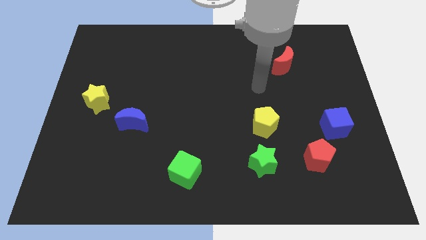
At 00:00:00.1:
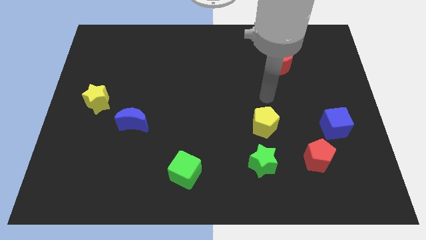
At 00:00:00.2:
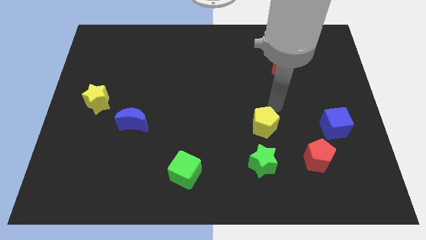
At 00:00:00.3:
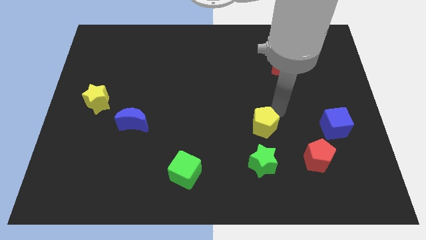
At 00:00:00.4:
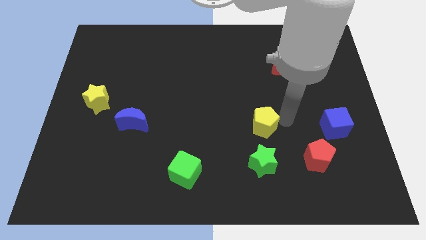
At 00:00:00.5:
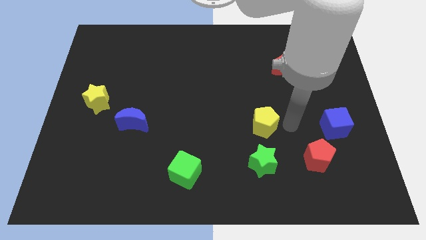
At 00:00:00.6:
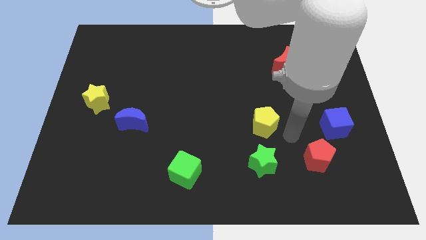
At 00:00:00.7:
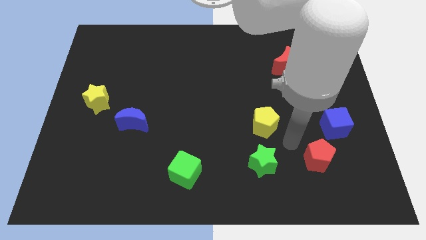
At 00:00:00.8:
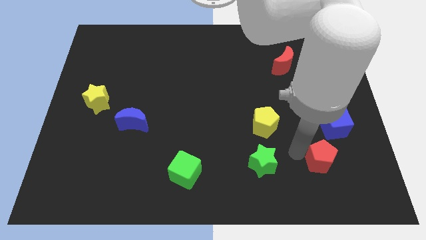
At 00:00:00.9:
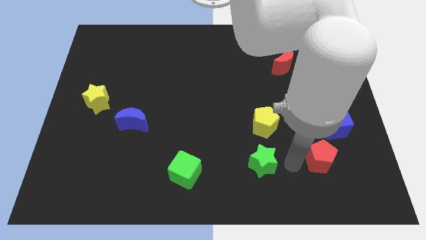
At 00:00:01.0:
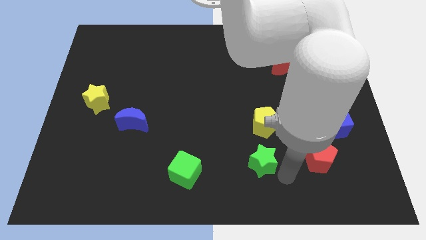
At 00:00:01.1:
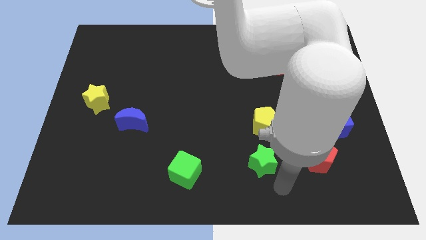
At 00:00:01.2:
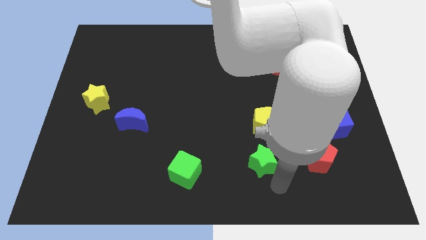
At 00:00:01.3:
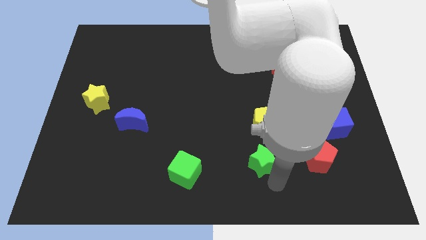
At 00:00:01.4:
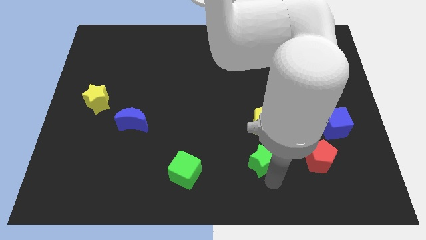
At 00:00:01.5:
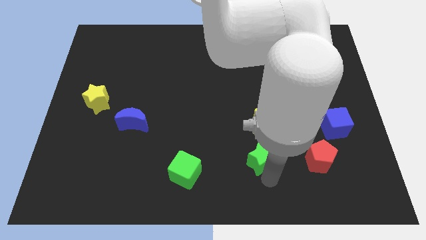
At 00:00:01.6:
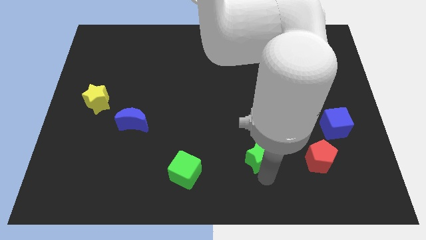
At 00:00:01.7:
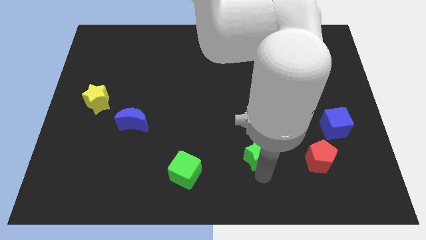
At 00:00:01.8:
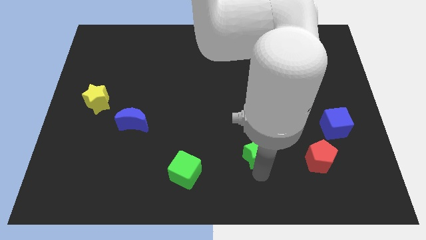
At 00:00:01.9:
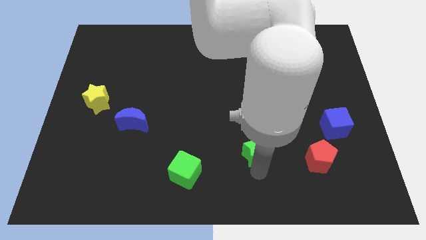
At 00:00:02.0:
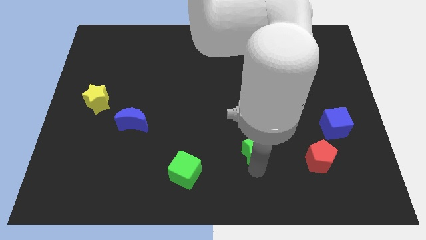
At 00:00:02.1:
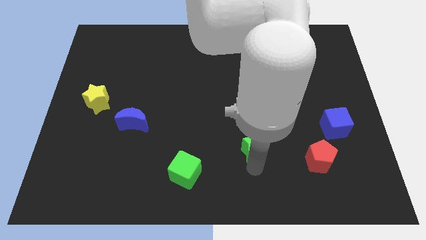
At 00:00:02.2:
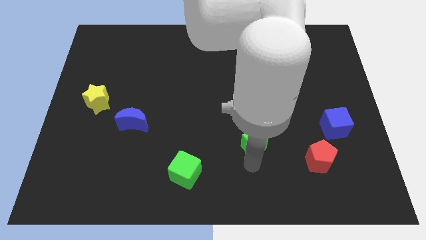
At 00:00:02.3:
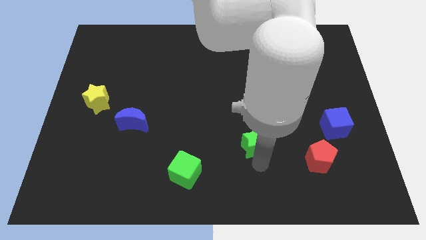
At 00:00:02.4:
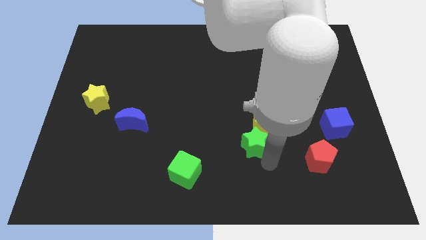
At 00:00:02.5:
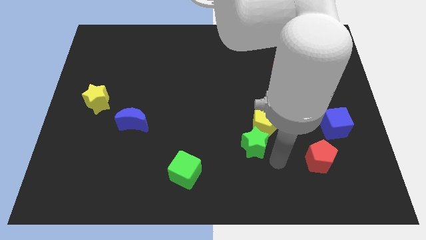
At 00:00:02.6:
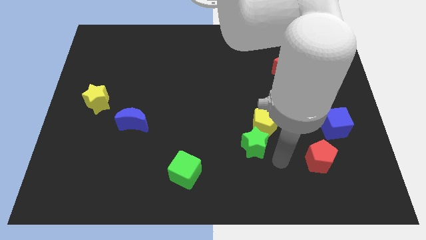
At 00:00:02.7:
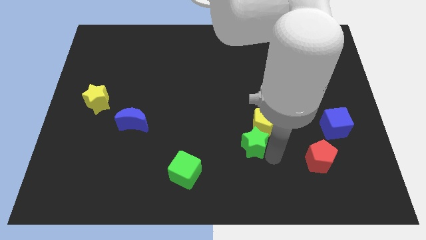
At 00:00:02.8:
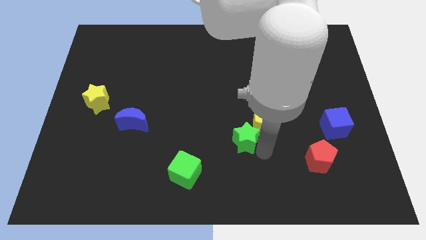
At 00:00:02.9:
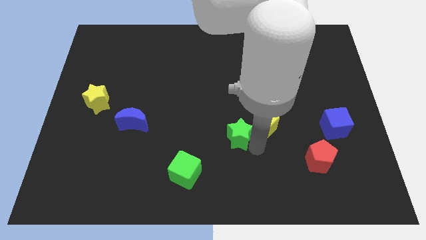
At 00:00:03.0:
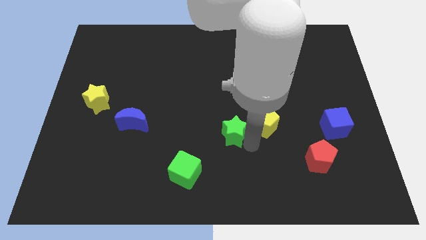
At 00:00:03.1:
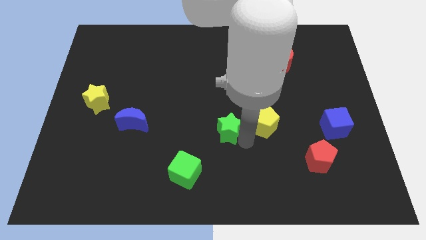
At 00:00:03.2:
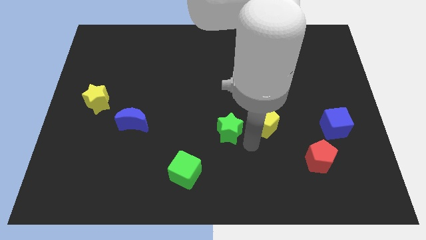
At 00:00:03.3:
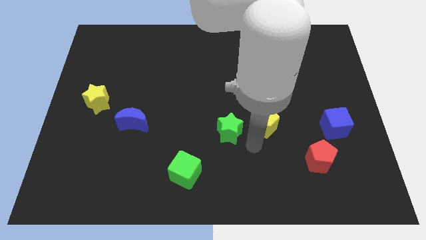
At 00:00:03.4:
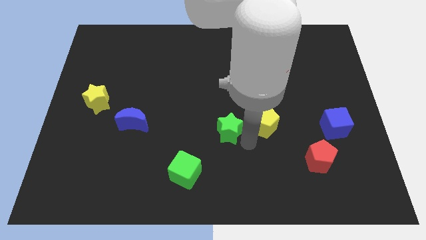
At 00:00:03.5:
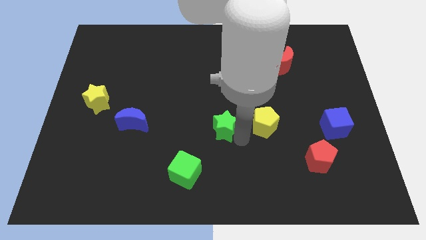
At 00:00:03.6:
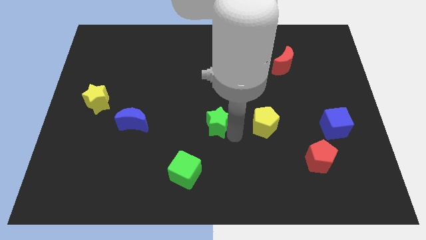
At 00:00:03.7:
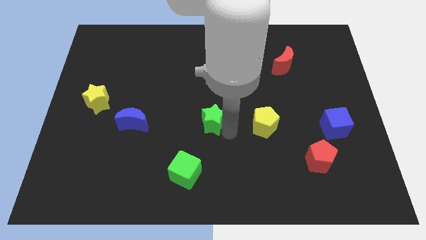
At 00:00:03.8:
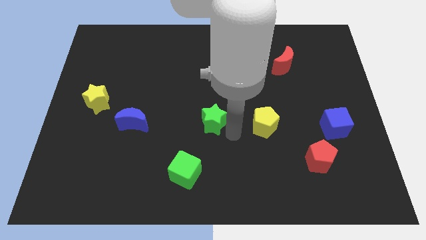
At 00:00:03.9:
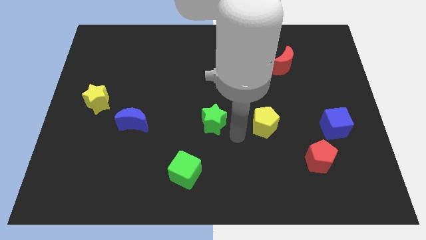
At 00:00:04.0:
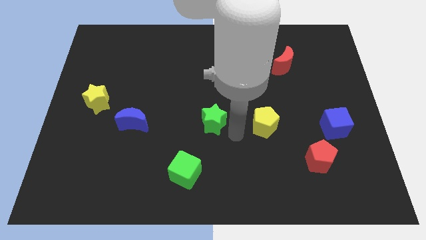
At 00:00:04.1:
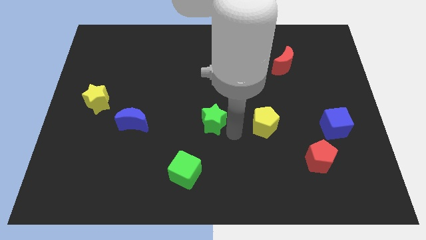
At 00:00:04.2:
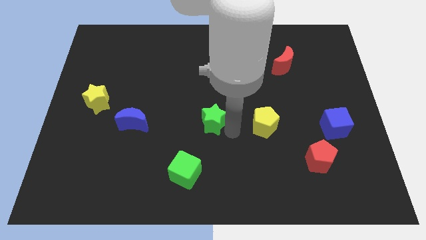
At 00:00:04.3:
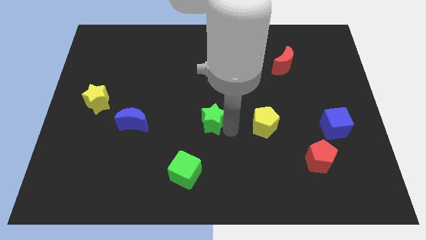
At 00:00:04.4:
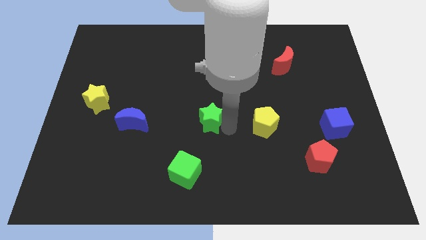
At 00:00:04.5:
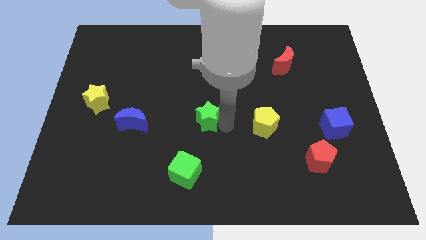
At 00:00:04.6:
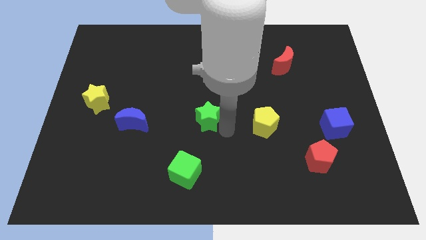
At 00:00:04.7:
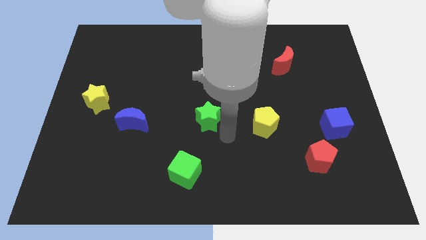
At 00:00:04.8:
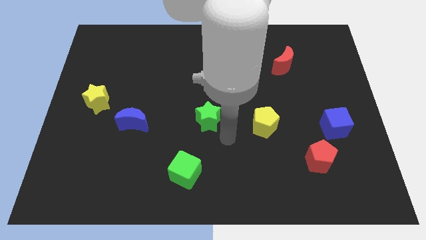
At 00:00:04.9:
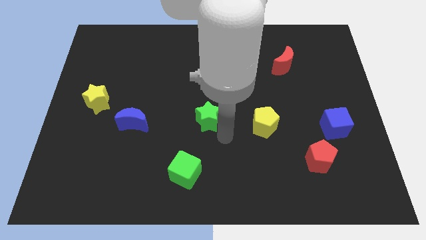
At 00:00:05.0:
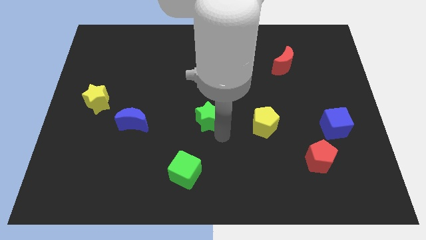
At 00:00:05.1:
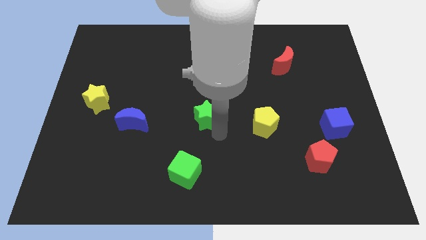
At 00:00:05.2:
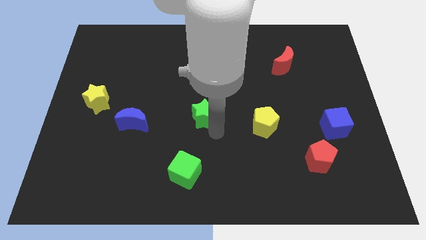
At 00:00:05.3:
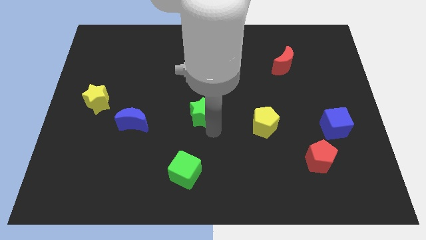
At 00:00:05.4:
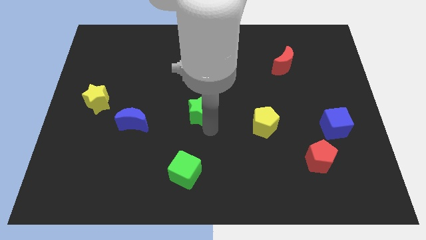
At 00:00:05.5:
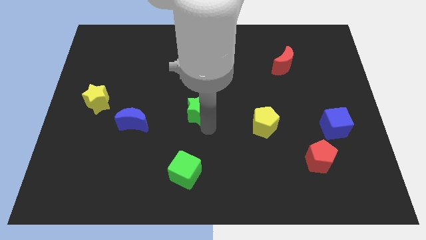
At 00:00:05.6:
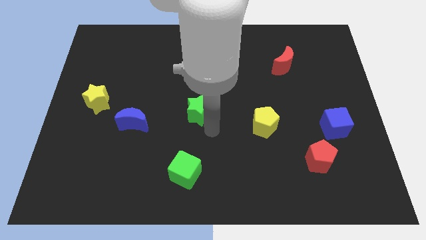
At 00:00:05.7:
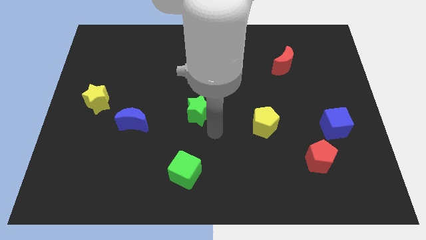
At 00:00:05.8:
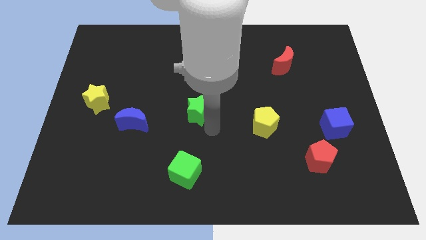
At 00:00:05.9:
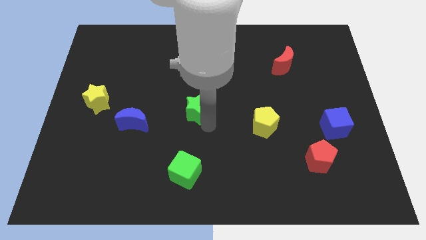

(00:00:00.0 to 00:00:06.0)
slide the green star up and to the left

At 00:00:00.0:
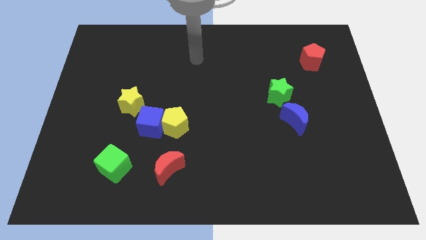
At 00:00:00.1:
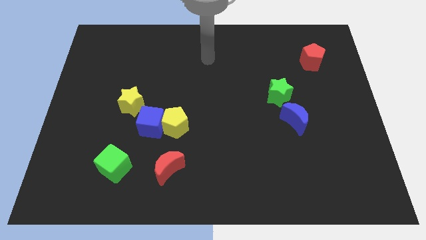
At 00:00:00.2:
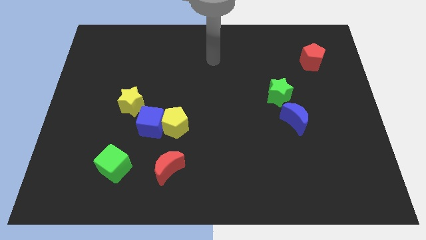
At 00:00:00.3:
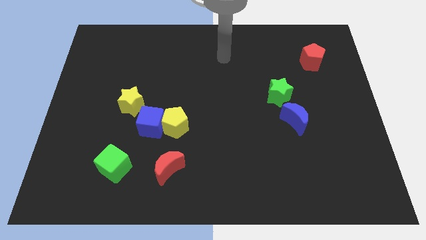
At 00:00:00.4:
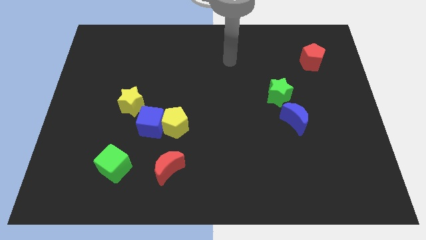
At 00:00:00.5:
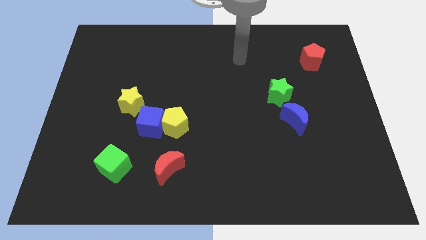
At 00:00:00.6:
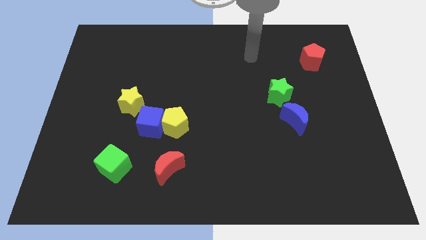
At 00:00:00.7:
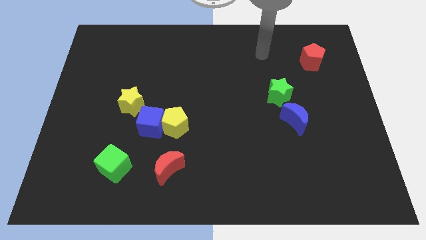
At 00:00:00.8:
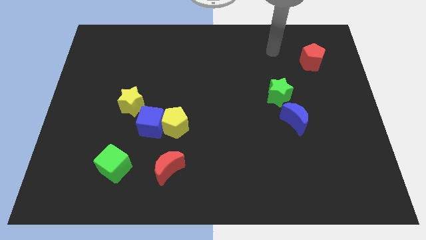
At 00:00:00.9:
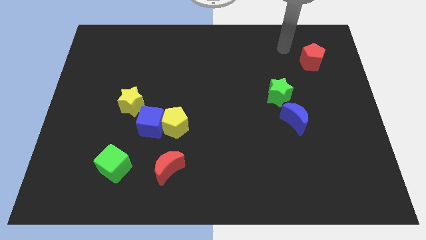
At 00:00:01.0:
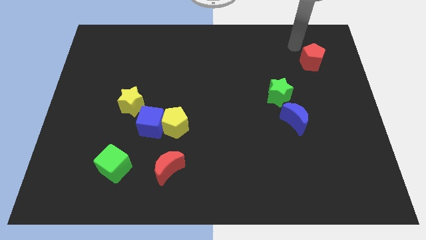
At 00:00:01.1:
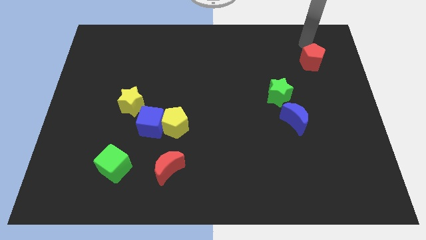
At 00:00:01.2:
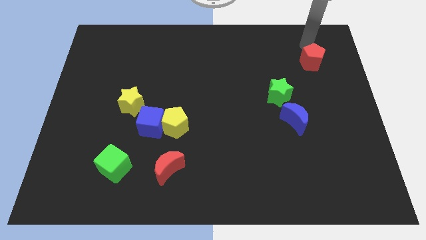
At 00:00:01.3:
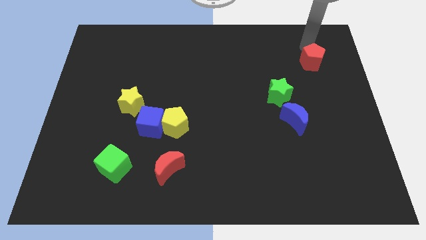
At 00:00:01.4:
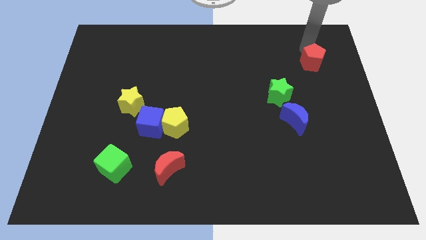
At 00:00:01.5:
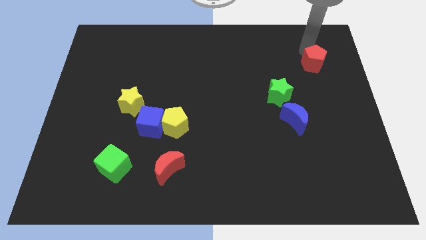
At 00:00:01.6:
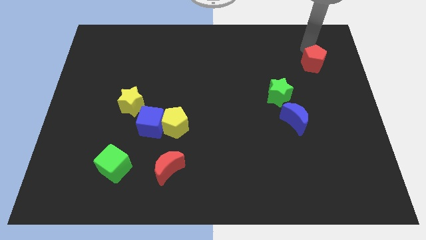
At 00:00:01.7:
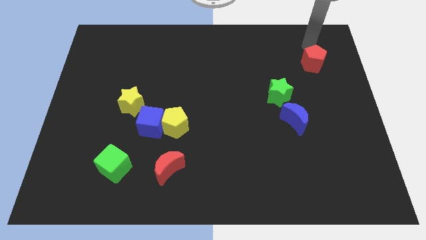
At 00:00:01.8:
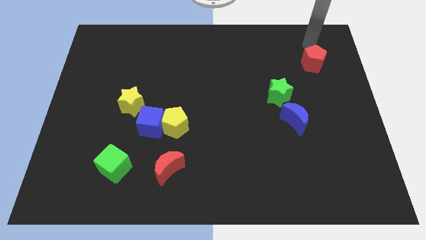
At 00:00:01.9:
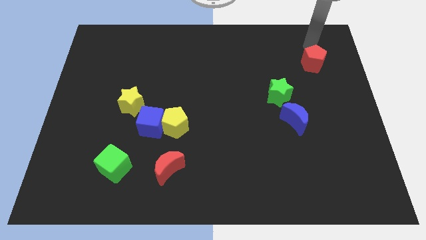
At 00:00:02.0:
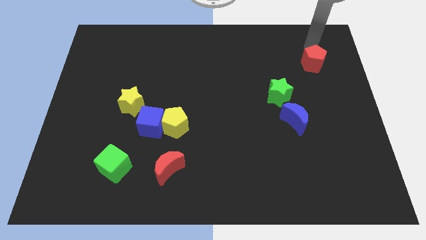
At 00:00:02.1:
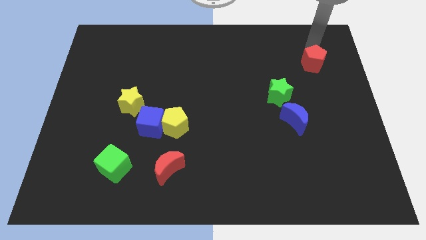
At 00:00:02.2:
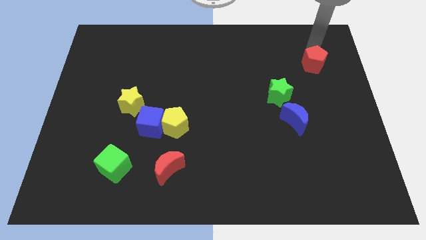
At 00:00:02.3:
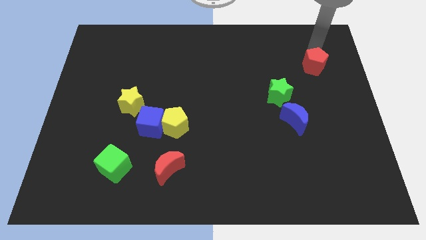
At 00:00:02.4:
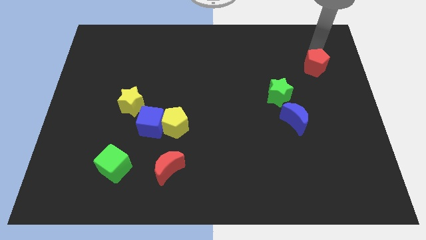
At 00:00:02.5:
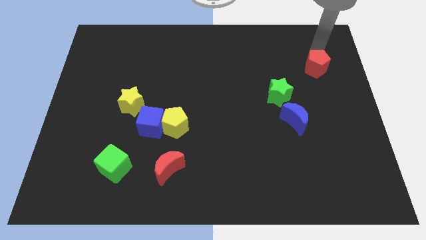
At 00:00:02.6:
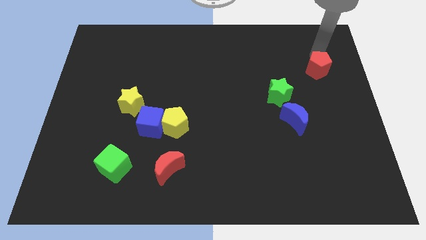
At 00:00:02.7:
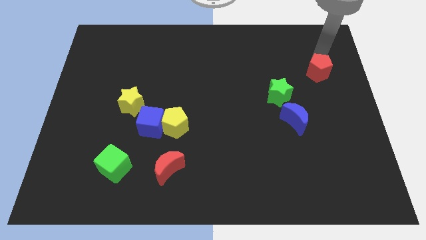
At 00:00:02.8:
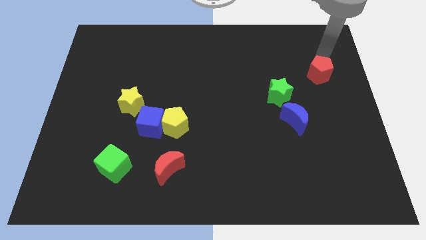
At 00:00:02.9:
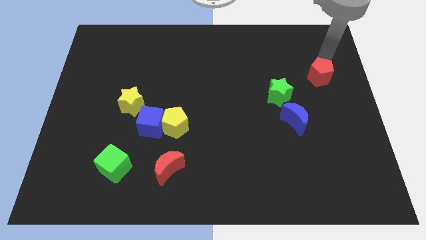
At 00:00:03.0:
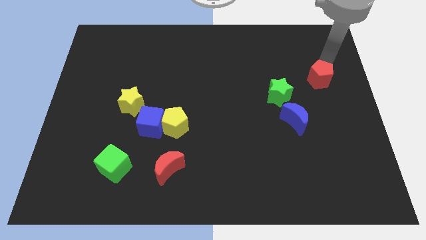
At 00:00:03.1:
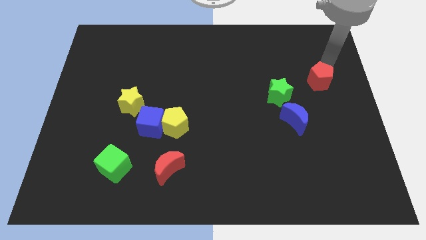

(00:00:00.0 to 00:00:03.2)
slightly slide the red pentagon down
